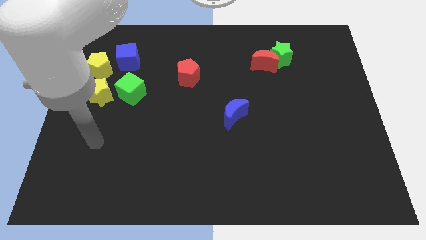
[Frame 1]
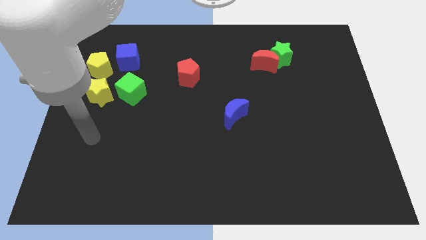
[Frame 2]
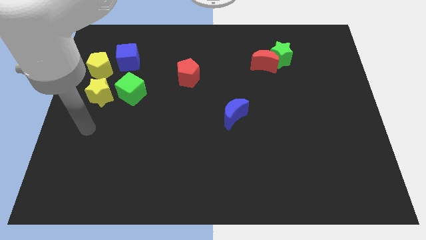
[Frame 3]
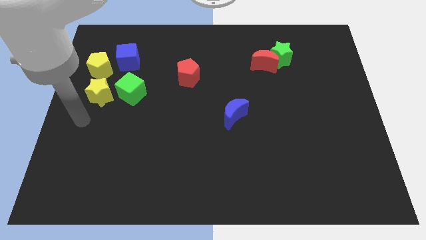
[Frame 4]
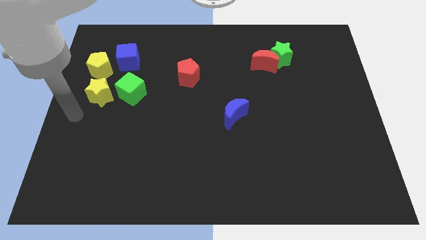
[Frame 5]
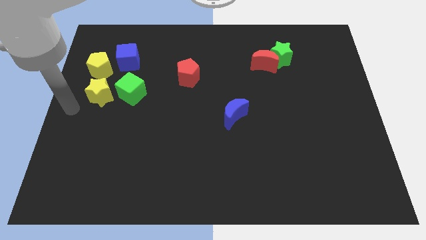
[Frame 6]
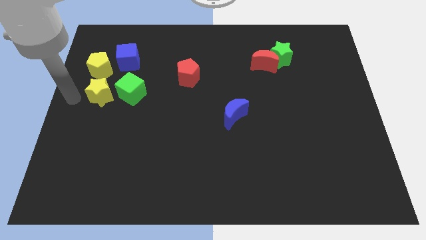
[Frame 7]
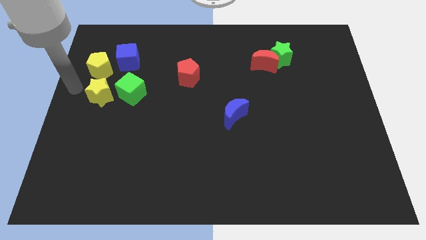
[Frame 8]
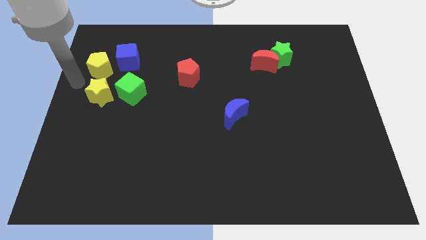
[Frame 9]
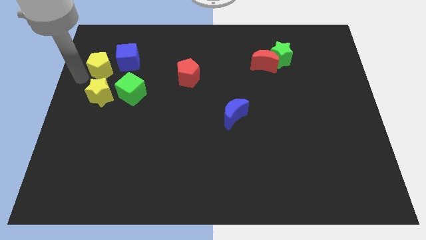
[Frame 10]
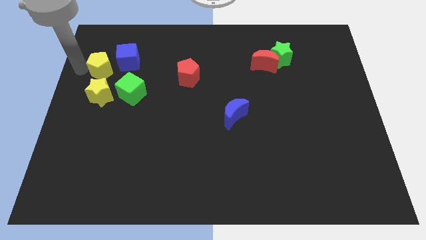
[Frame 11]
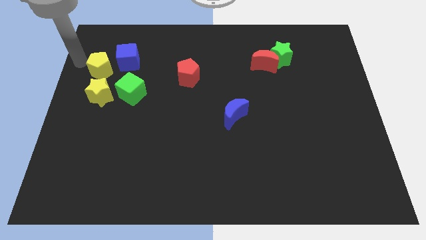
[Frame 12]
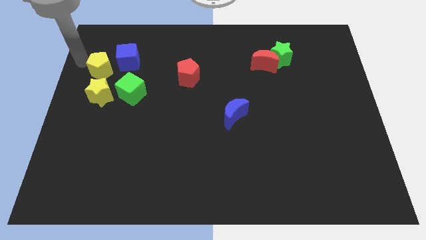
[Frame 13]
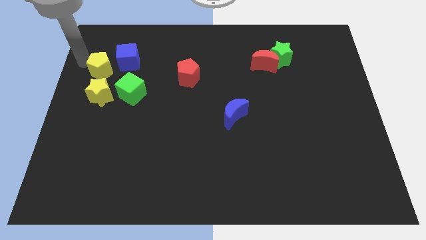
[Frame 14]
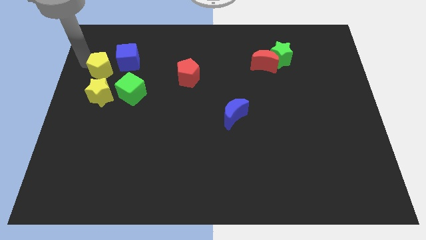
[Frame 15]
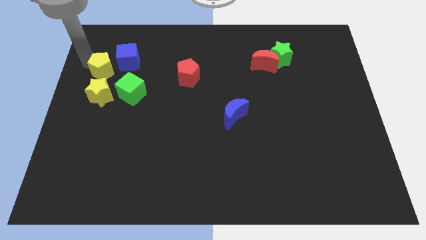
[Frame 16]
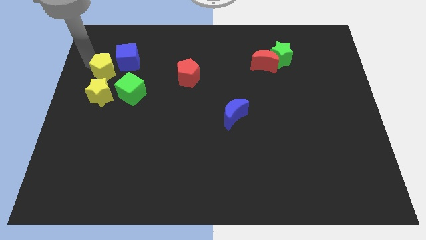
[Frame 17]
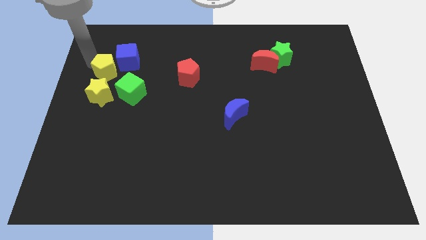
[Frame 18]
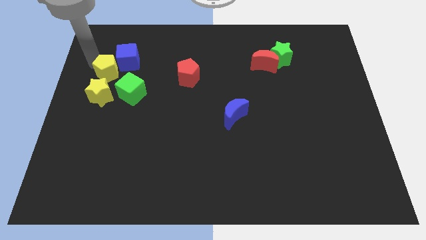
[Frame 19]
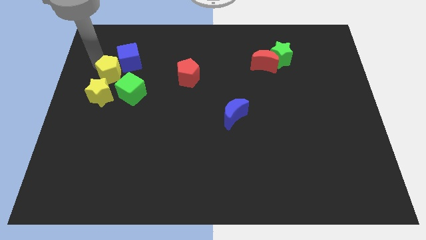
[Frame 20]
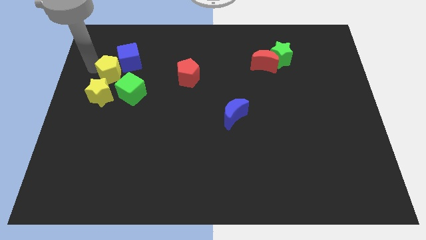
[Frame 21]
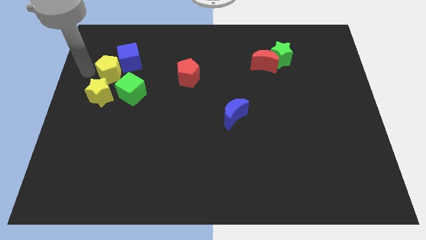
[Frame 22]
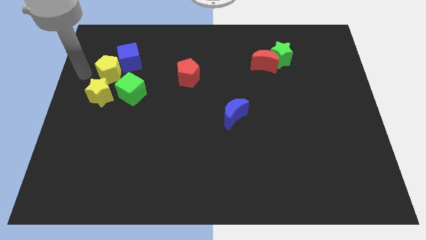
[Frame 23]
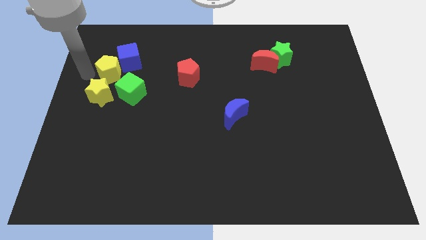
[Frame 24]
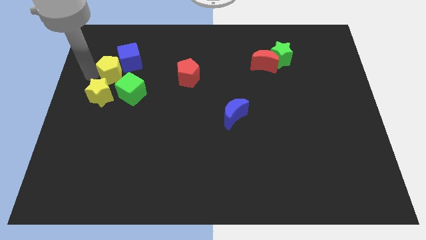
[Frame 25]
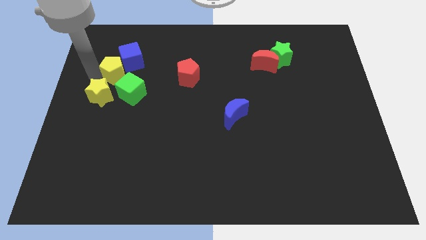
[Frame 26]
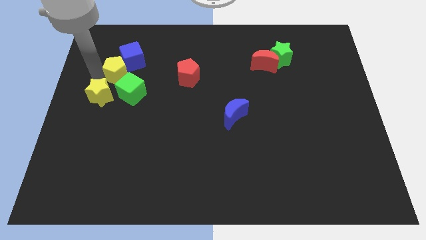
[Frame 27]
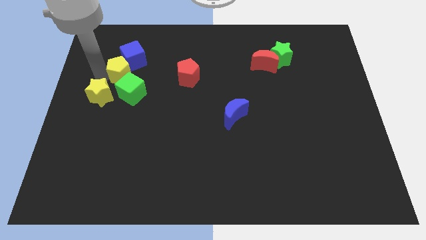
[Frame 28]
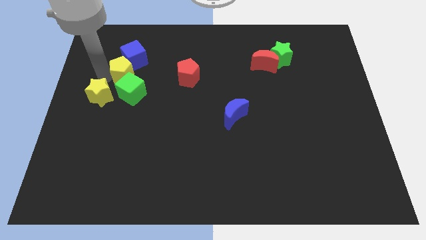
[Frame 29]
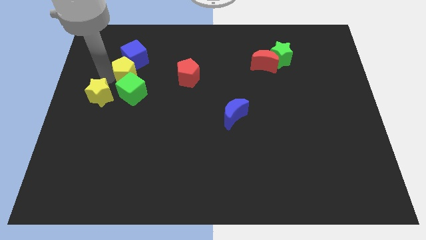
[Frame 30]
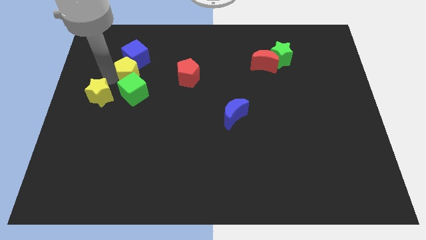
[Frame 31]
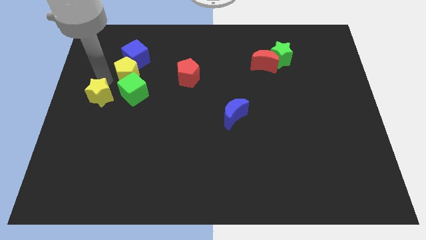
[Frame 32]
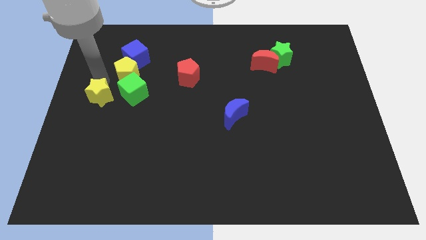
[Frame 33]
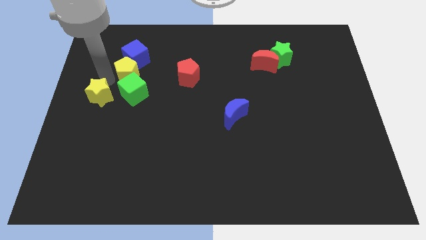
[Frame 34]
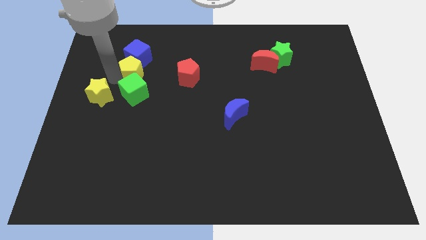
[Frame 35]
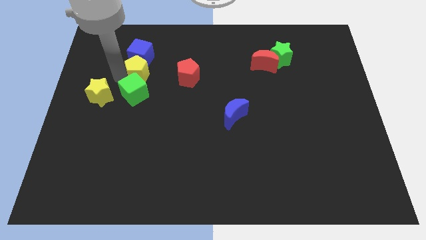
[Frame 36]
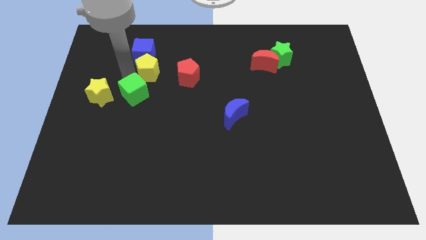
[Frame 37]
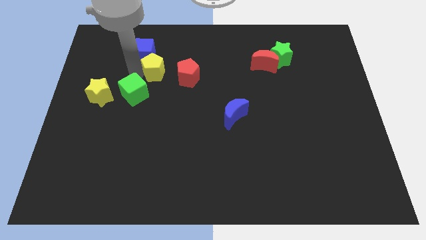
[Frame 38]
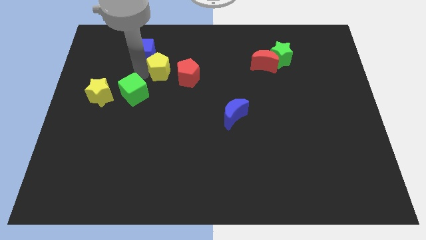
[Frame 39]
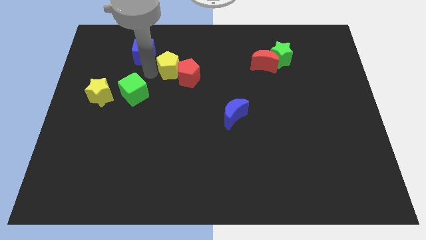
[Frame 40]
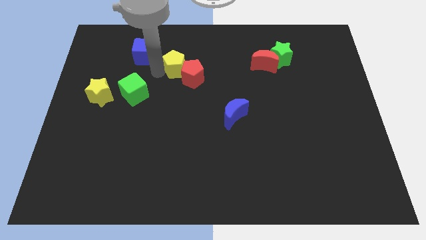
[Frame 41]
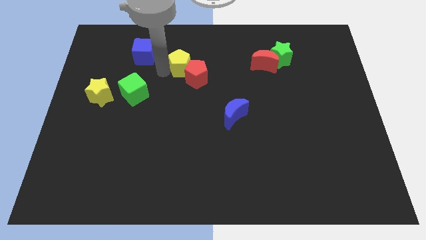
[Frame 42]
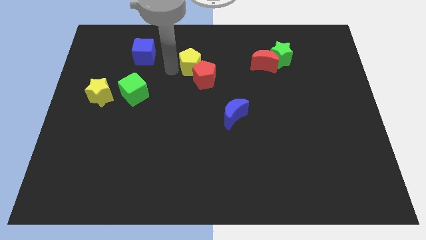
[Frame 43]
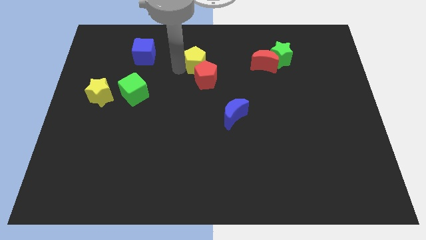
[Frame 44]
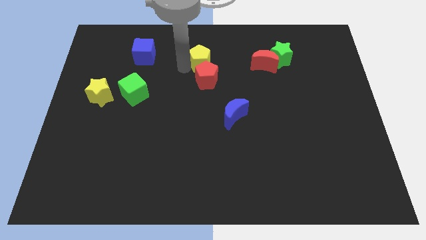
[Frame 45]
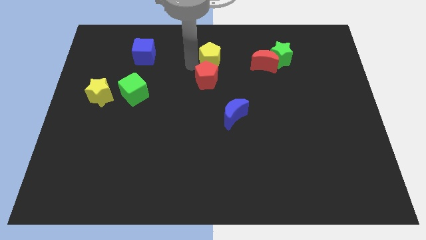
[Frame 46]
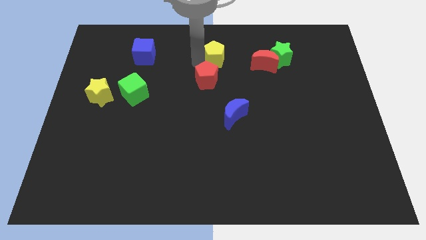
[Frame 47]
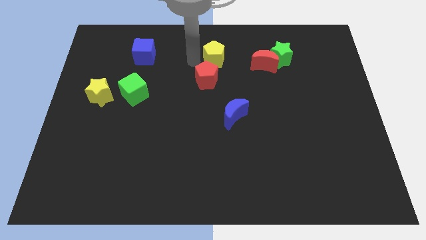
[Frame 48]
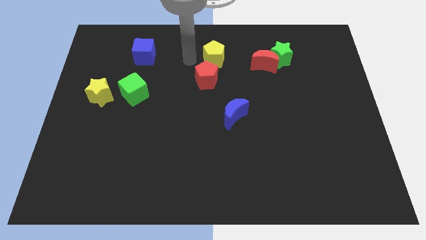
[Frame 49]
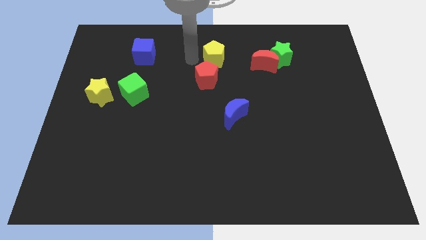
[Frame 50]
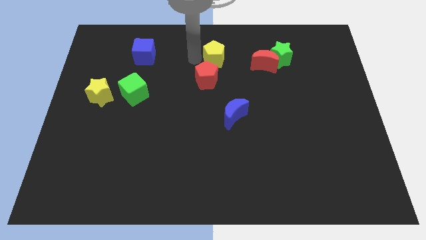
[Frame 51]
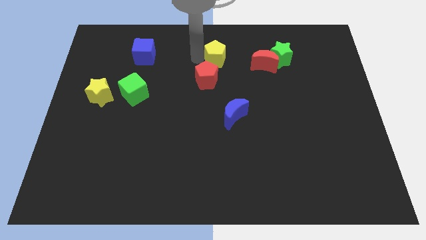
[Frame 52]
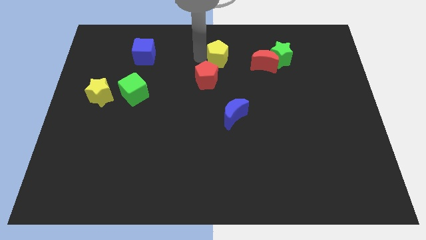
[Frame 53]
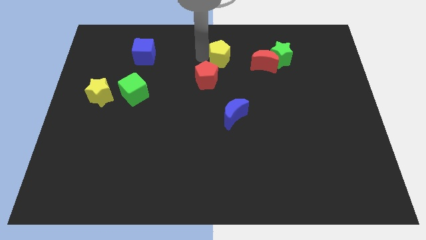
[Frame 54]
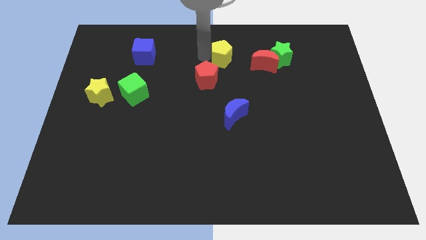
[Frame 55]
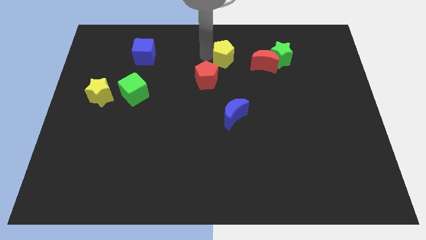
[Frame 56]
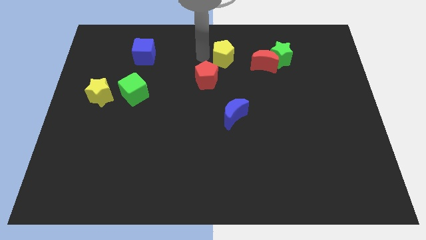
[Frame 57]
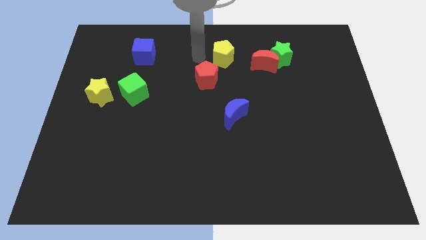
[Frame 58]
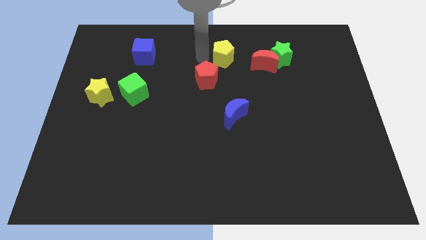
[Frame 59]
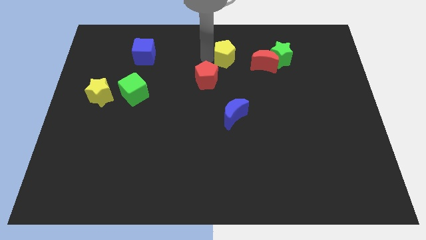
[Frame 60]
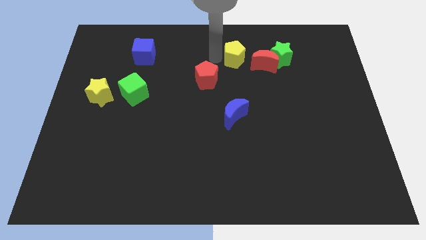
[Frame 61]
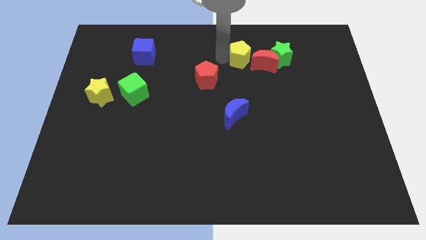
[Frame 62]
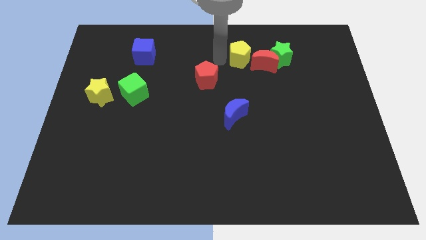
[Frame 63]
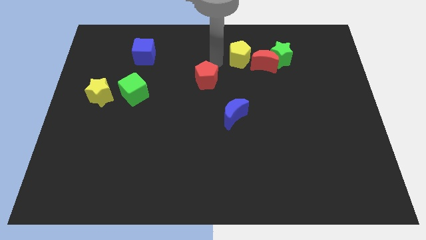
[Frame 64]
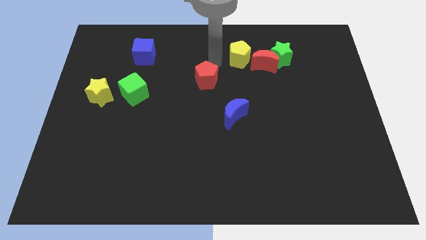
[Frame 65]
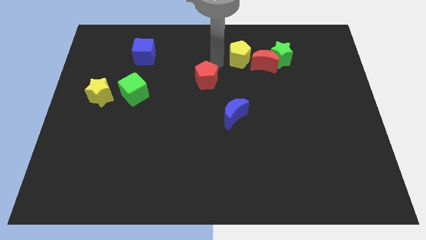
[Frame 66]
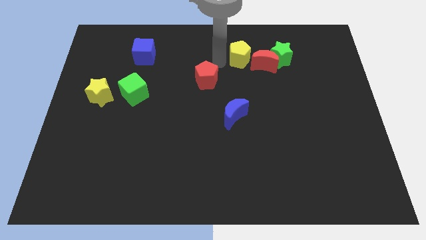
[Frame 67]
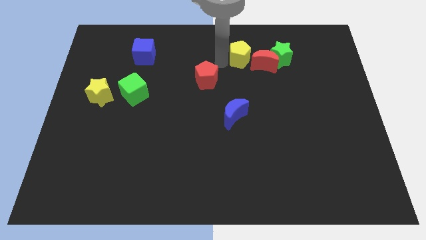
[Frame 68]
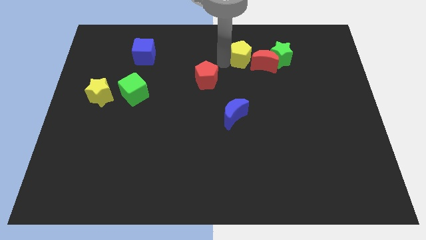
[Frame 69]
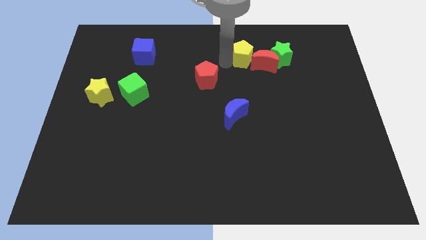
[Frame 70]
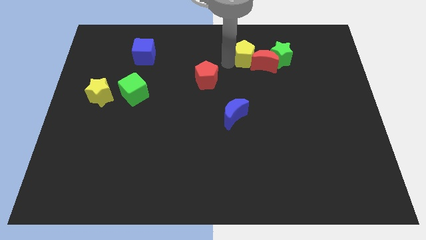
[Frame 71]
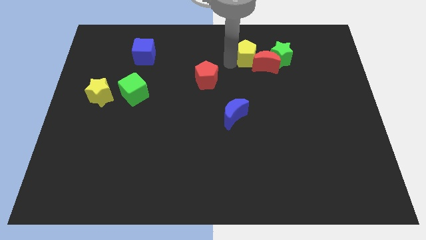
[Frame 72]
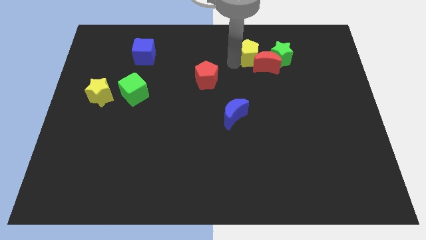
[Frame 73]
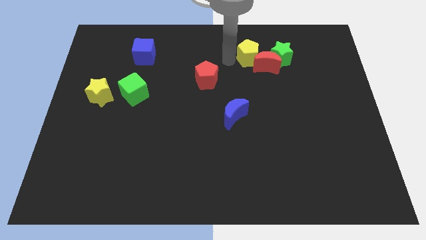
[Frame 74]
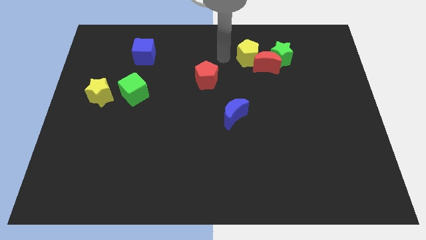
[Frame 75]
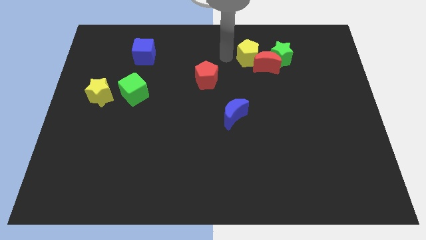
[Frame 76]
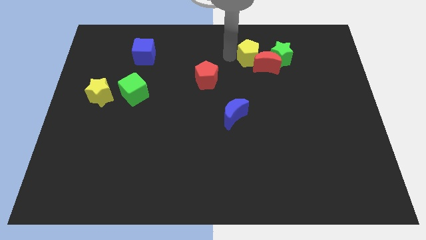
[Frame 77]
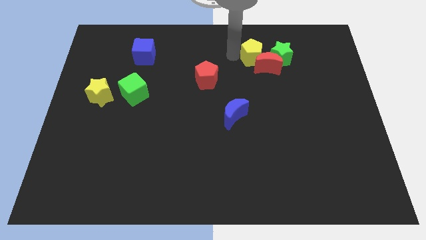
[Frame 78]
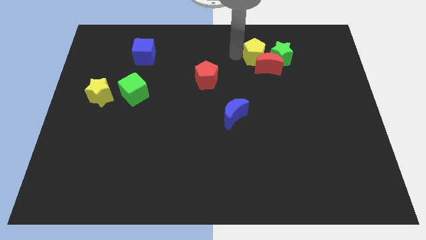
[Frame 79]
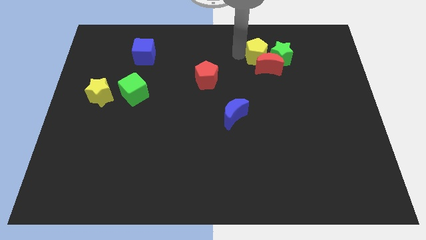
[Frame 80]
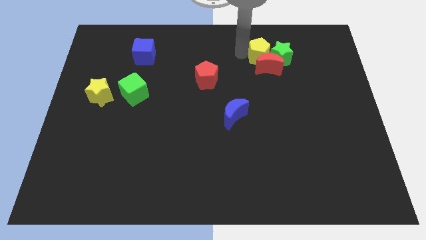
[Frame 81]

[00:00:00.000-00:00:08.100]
push the yellow pentagon next to the green star

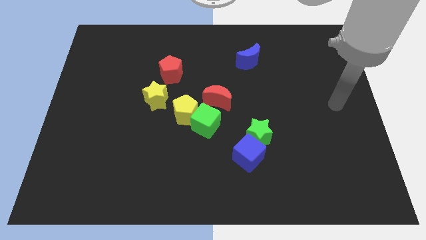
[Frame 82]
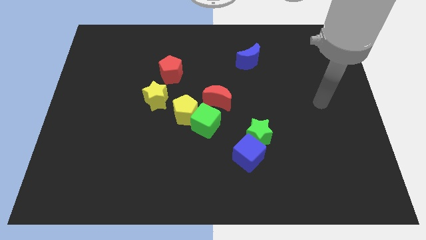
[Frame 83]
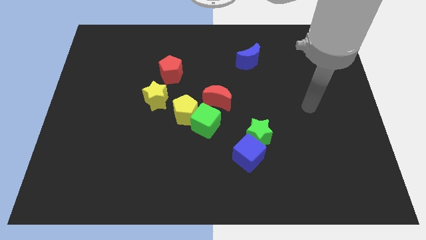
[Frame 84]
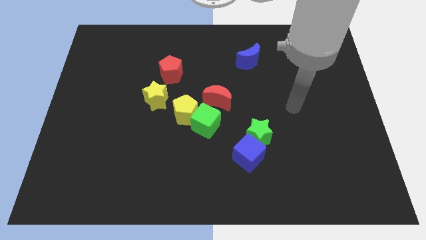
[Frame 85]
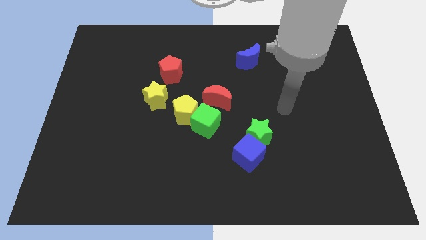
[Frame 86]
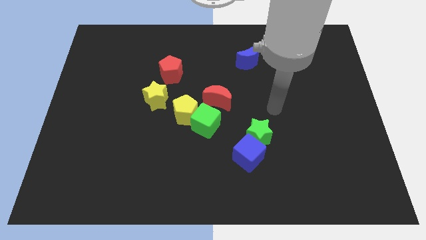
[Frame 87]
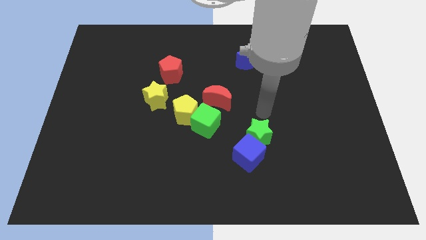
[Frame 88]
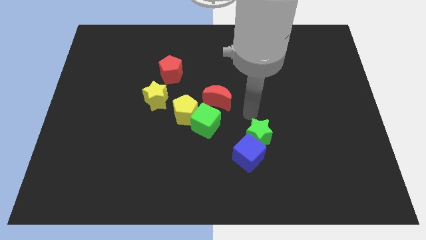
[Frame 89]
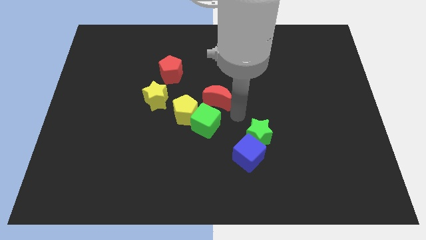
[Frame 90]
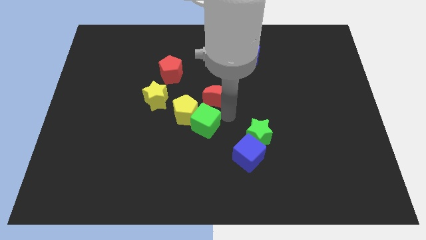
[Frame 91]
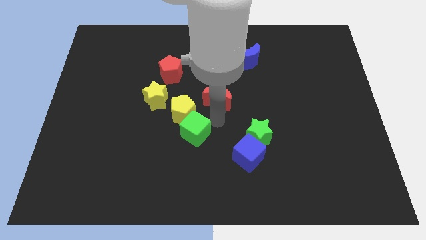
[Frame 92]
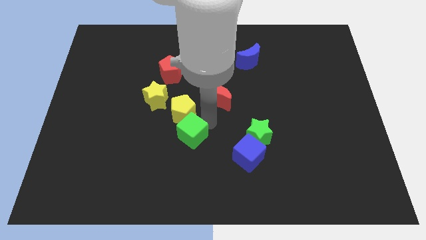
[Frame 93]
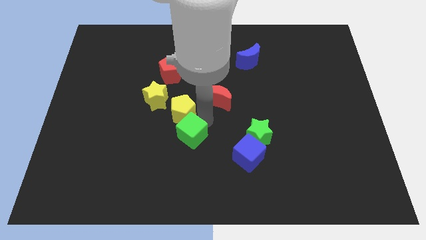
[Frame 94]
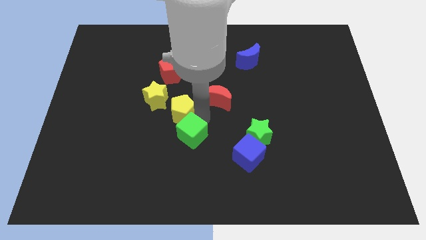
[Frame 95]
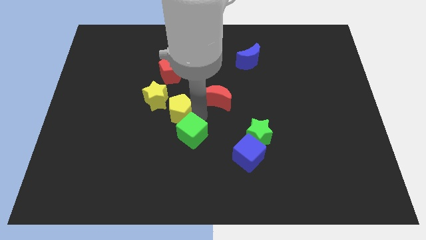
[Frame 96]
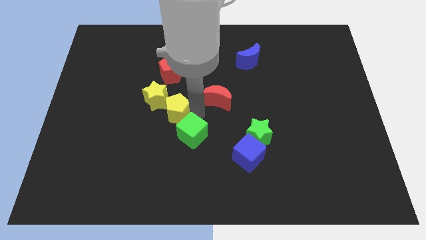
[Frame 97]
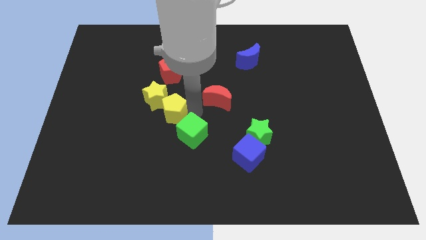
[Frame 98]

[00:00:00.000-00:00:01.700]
slide the yellow pentagon to the yellow star
